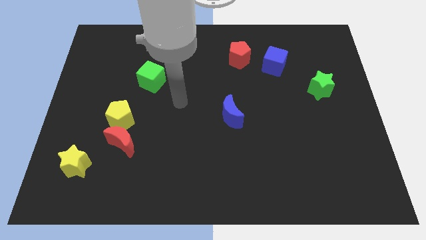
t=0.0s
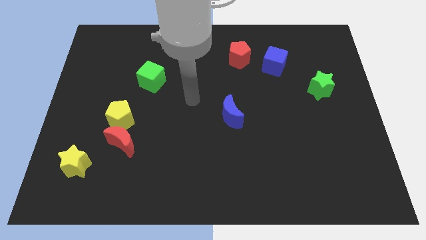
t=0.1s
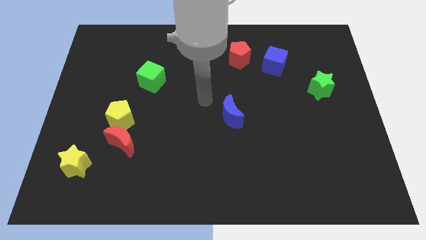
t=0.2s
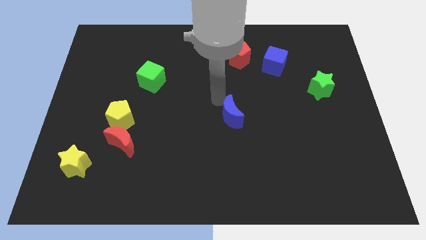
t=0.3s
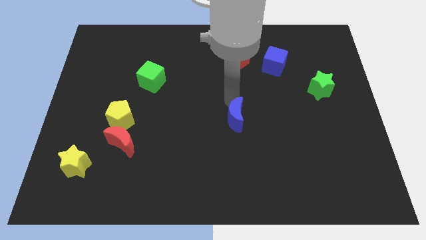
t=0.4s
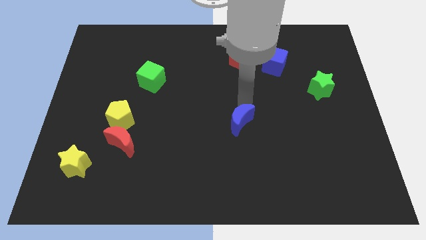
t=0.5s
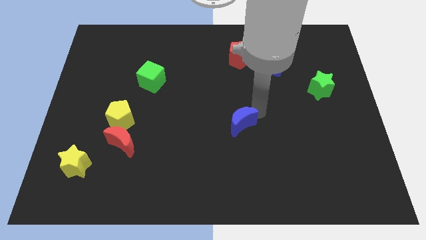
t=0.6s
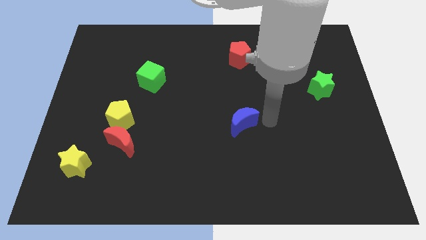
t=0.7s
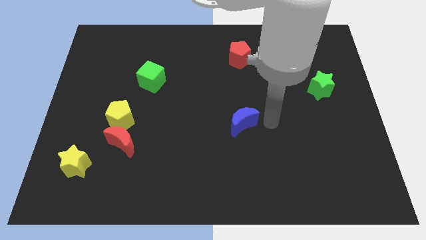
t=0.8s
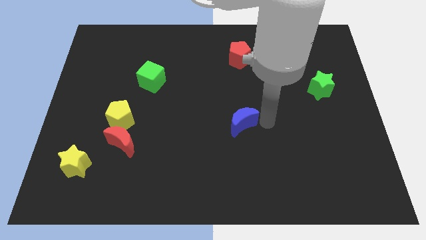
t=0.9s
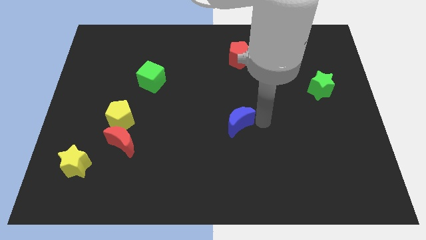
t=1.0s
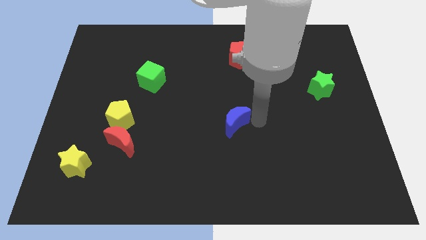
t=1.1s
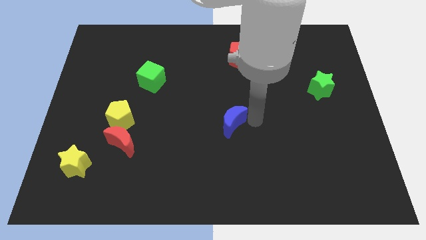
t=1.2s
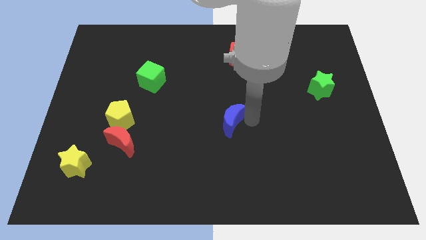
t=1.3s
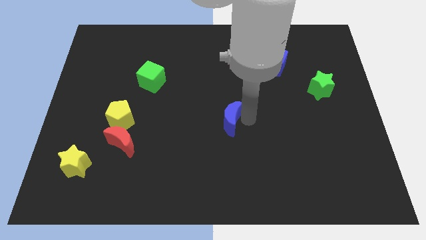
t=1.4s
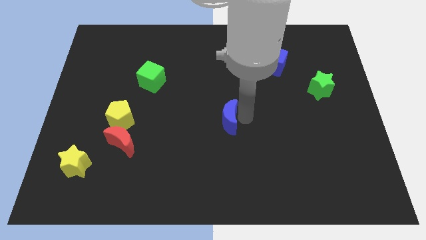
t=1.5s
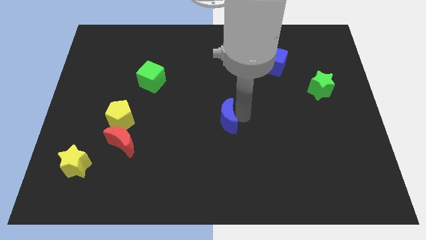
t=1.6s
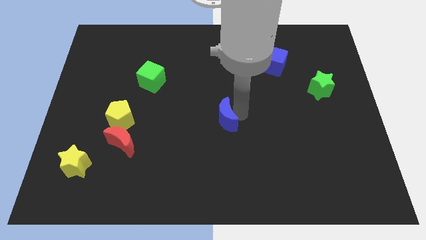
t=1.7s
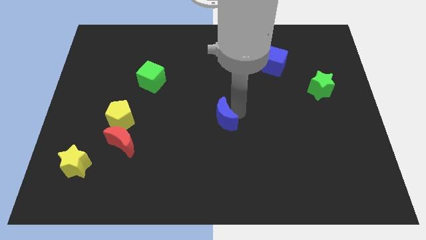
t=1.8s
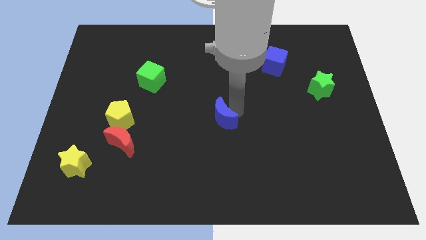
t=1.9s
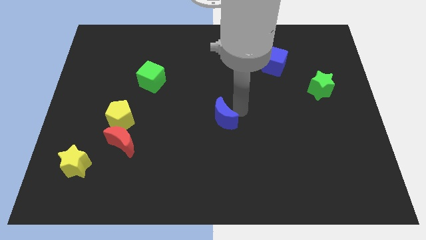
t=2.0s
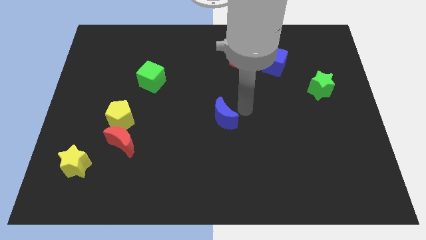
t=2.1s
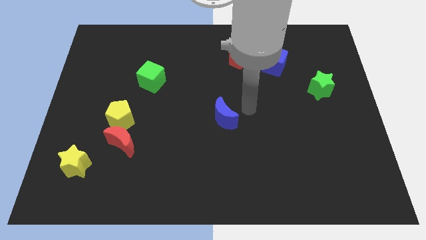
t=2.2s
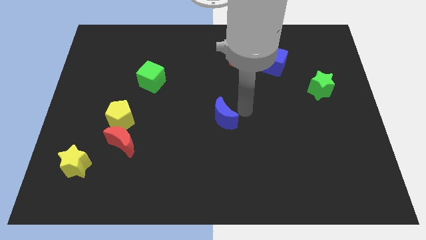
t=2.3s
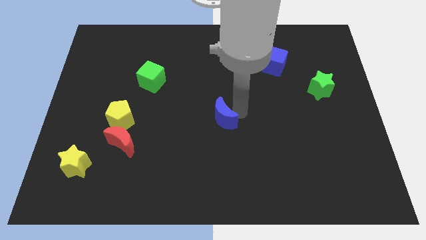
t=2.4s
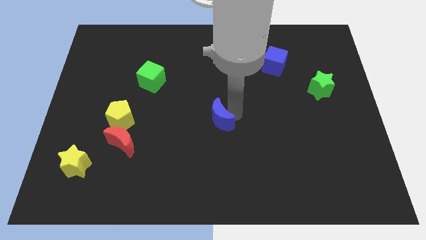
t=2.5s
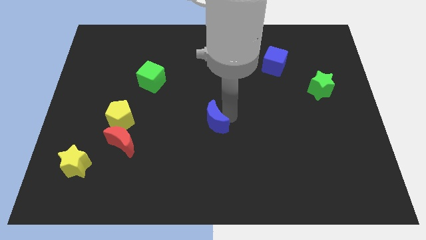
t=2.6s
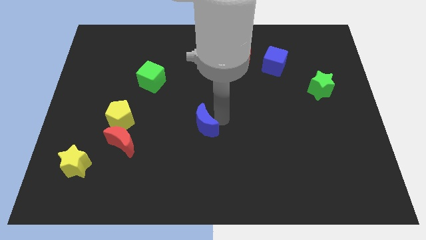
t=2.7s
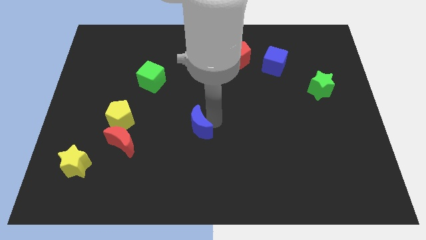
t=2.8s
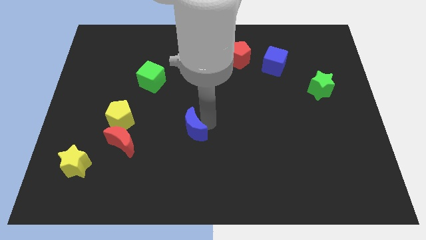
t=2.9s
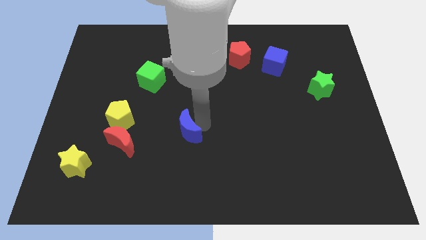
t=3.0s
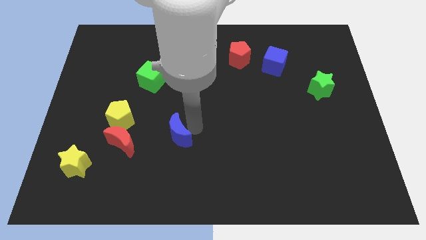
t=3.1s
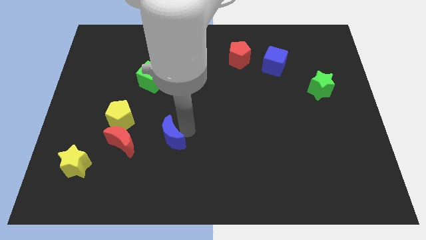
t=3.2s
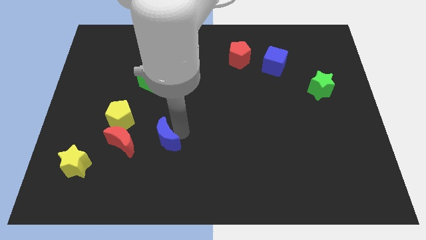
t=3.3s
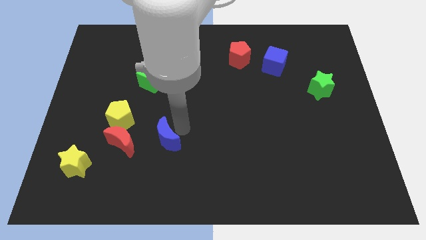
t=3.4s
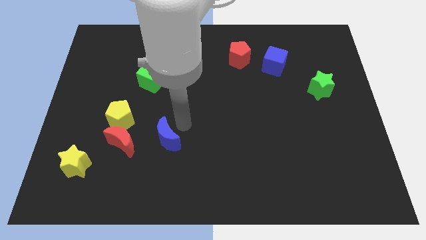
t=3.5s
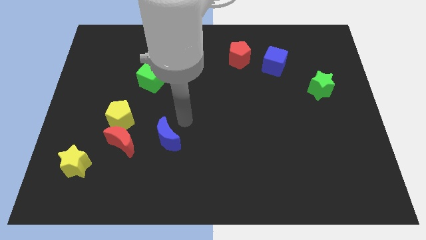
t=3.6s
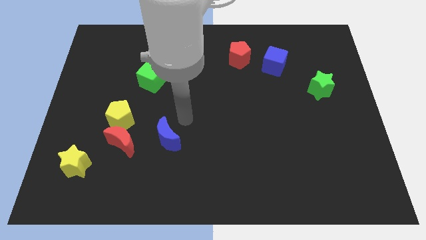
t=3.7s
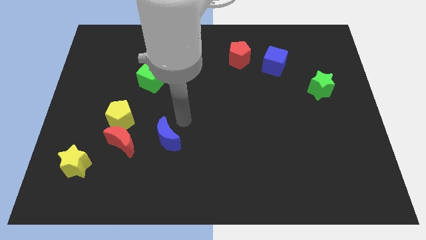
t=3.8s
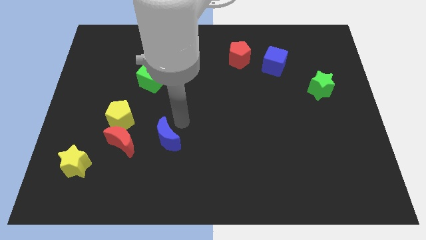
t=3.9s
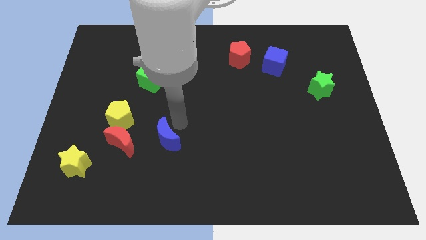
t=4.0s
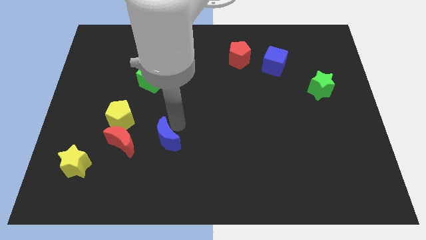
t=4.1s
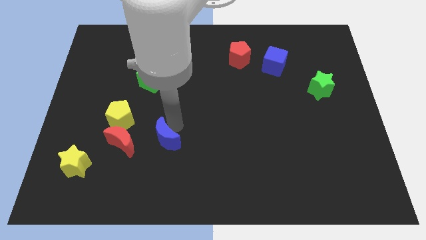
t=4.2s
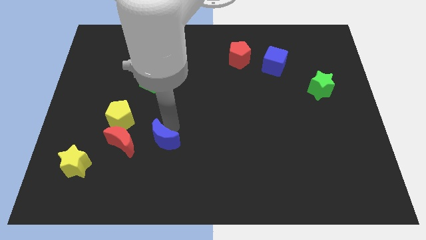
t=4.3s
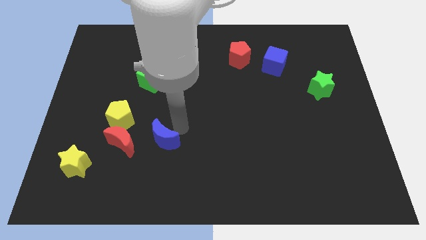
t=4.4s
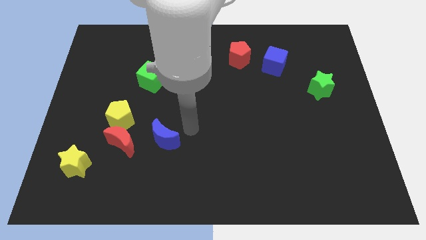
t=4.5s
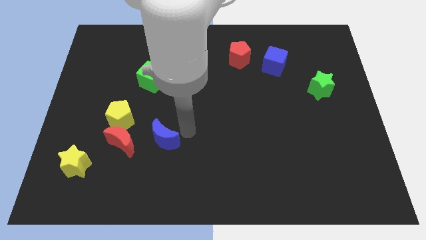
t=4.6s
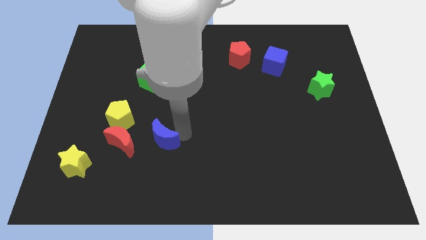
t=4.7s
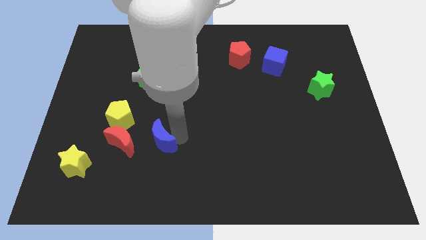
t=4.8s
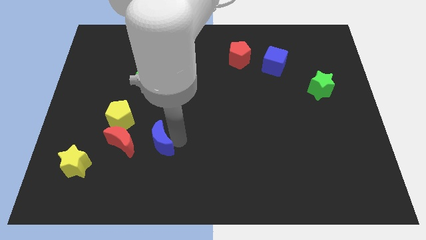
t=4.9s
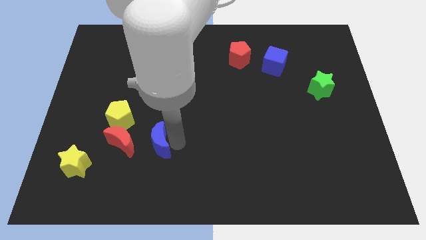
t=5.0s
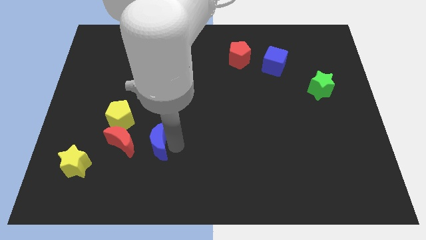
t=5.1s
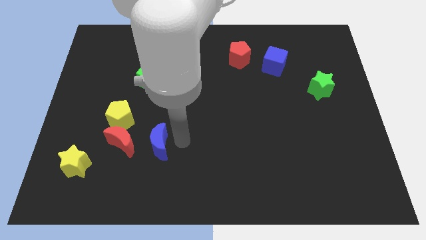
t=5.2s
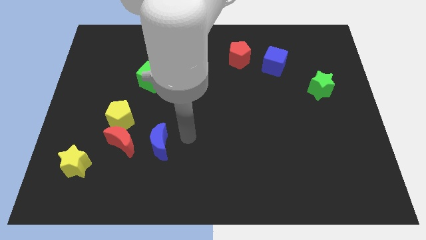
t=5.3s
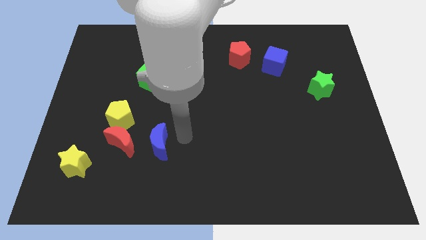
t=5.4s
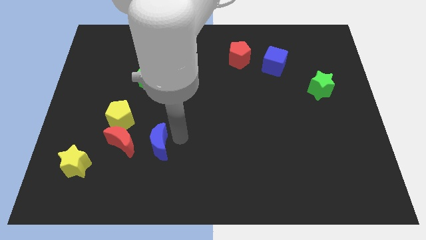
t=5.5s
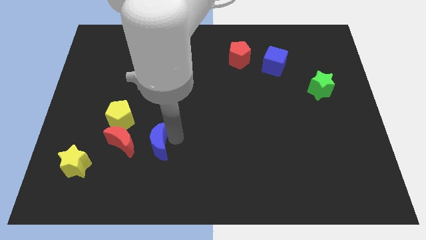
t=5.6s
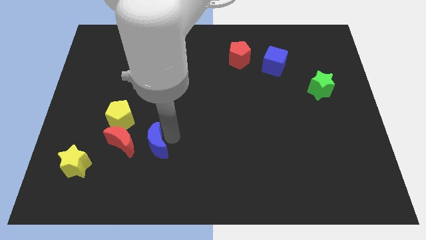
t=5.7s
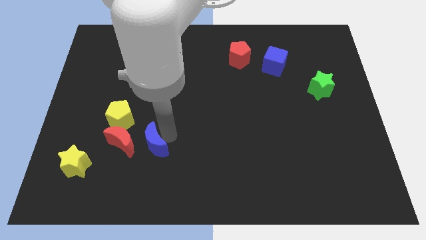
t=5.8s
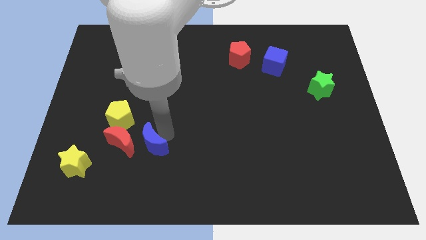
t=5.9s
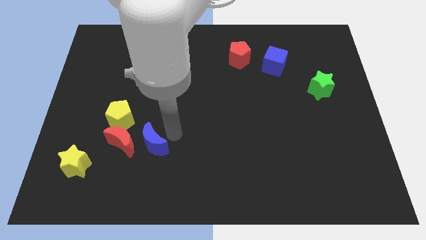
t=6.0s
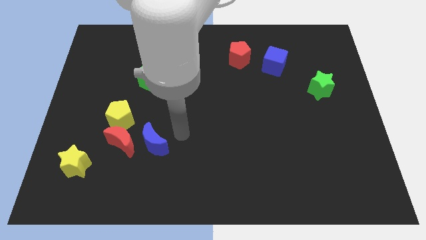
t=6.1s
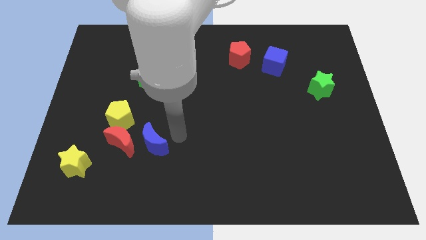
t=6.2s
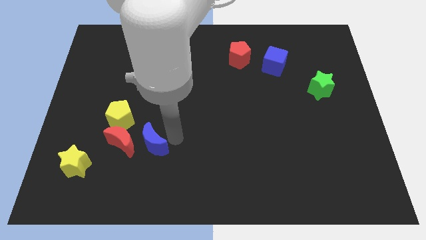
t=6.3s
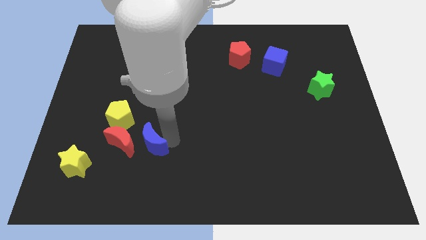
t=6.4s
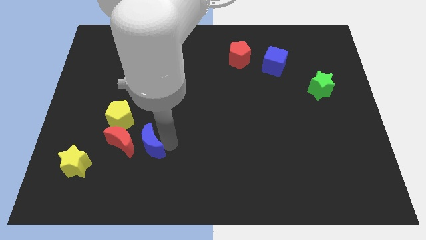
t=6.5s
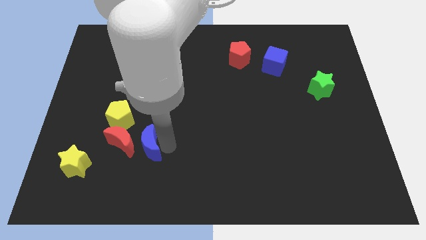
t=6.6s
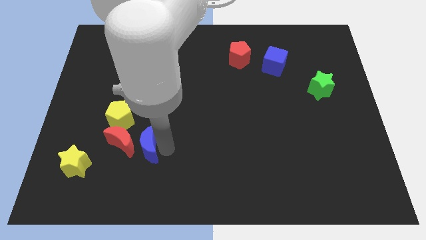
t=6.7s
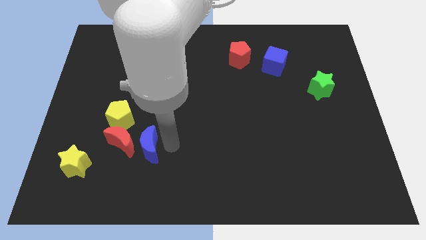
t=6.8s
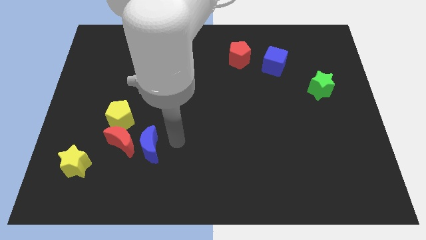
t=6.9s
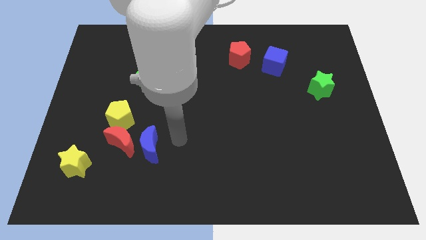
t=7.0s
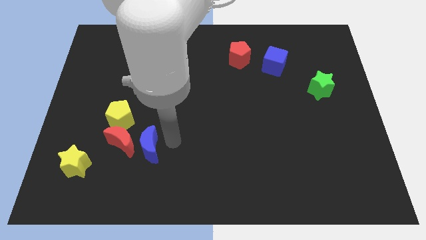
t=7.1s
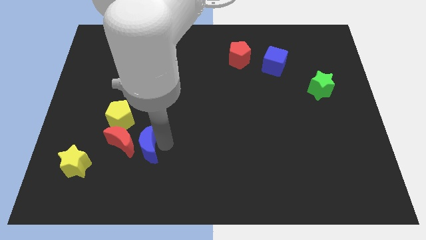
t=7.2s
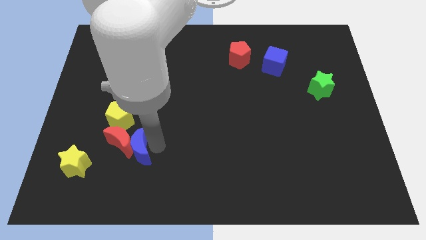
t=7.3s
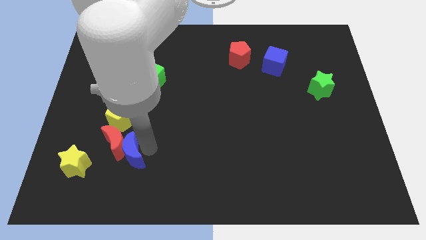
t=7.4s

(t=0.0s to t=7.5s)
slide the blue moon to the bottom of the yellow pentagon

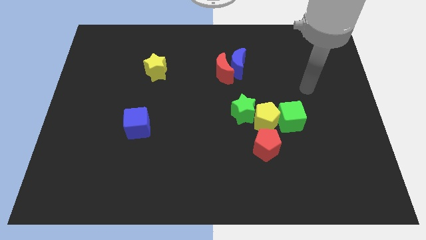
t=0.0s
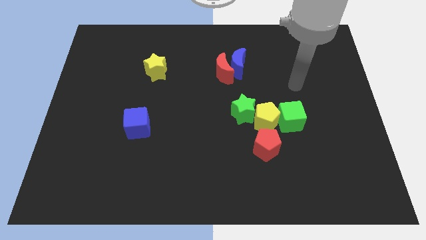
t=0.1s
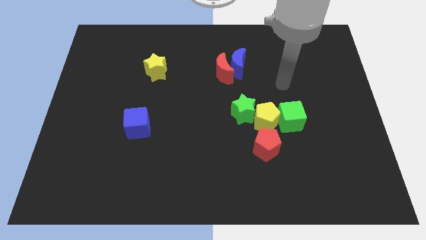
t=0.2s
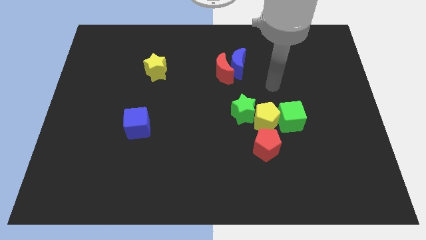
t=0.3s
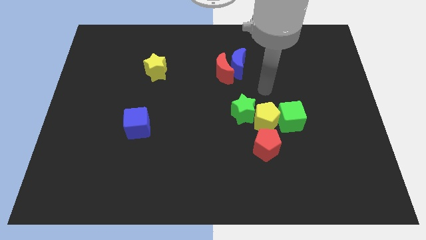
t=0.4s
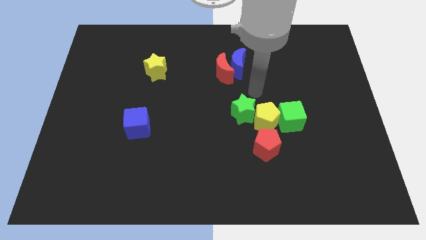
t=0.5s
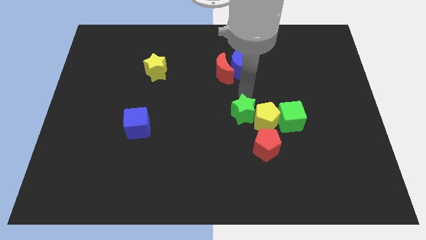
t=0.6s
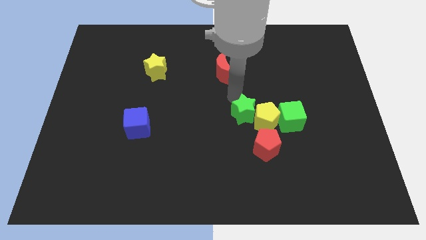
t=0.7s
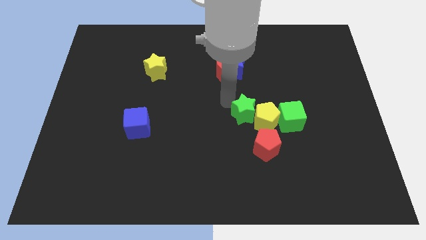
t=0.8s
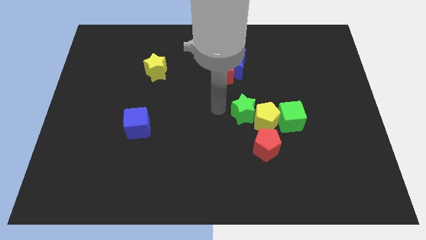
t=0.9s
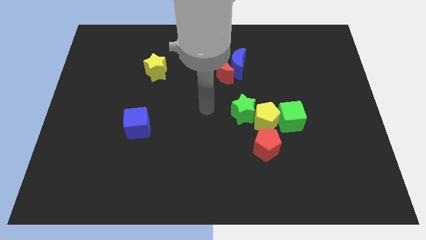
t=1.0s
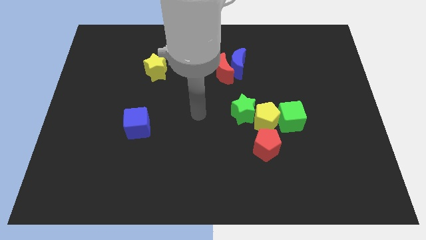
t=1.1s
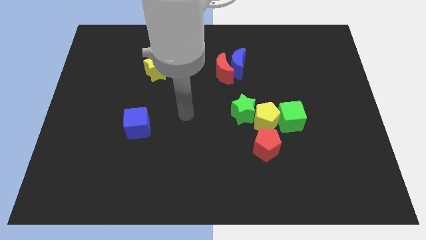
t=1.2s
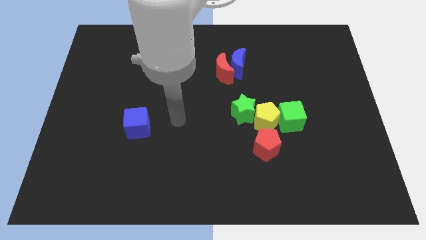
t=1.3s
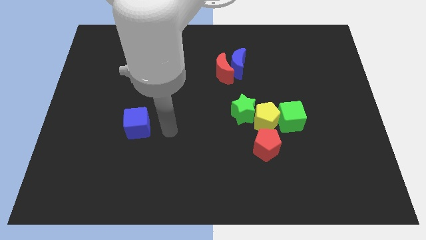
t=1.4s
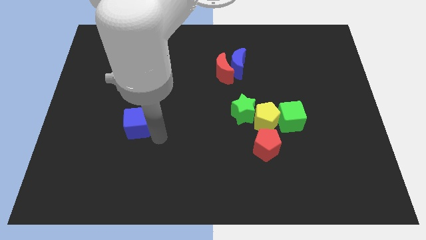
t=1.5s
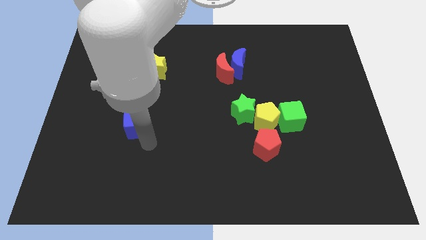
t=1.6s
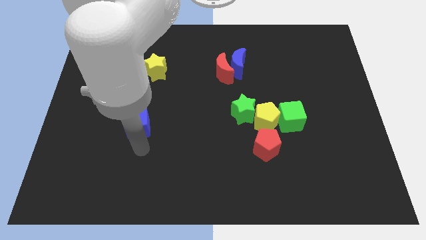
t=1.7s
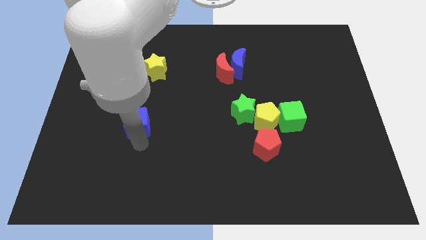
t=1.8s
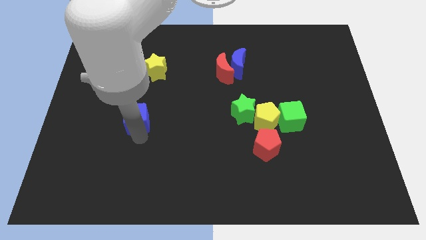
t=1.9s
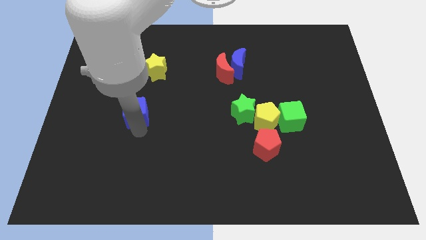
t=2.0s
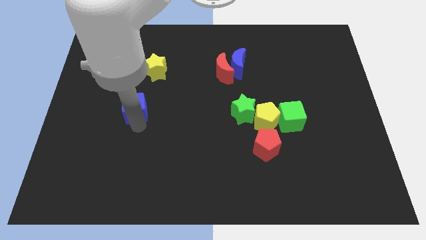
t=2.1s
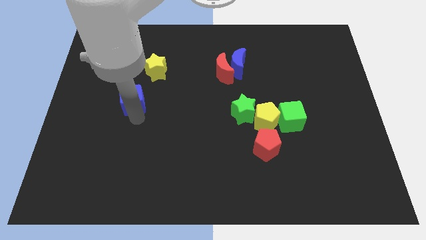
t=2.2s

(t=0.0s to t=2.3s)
move the blue cube diagonally down and to the left of the yellow star
